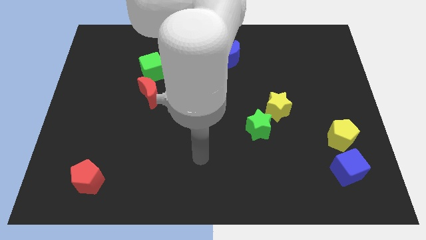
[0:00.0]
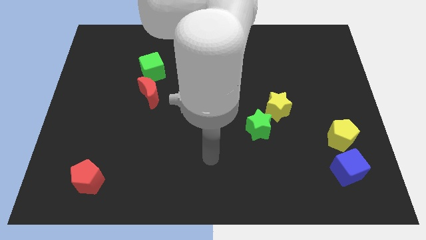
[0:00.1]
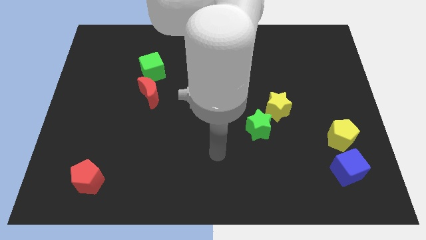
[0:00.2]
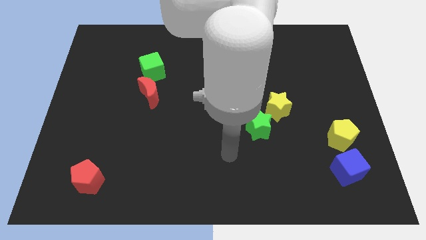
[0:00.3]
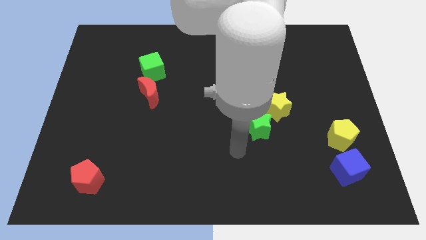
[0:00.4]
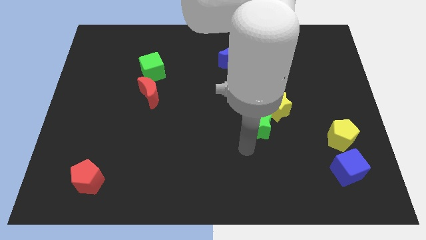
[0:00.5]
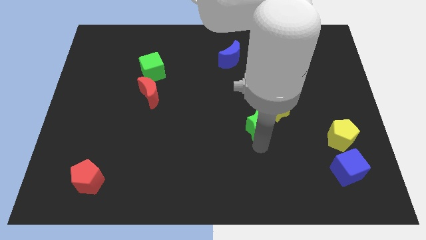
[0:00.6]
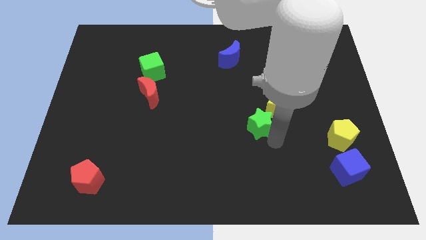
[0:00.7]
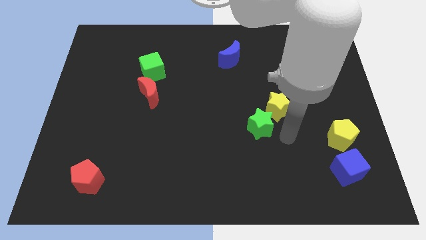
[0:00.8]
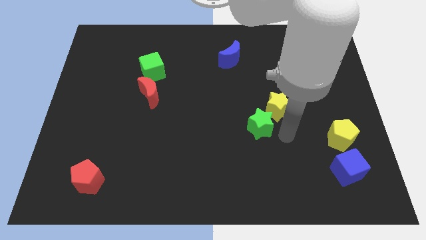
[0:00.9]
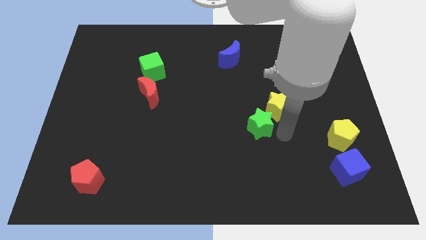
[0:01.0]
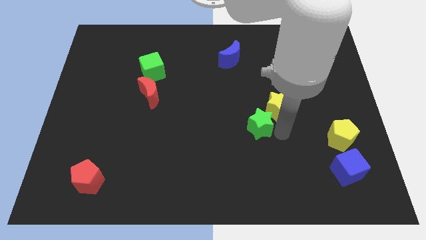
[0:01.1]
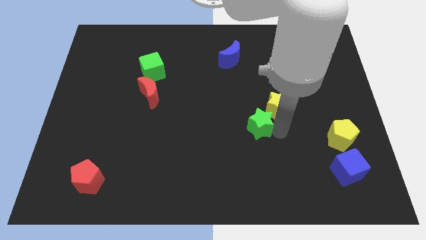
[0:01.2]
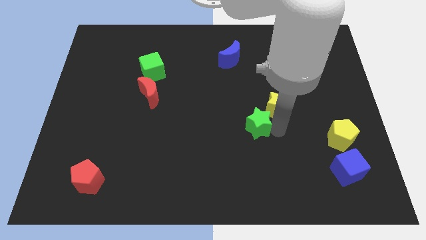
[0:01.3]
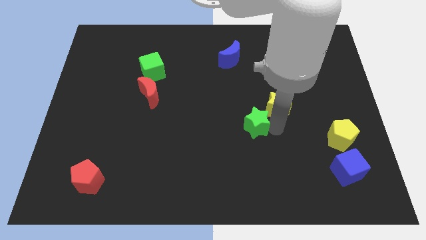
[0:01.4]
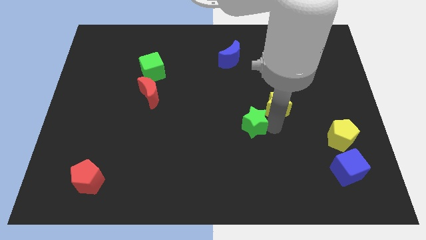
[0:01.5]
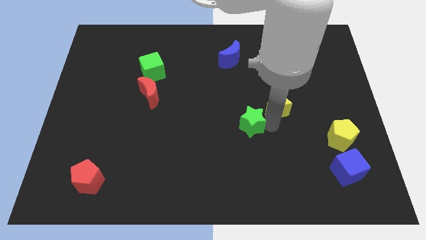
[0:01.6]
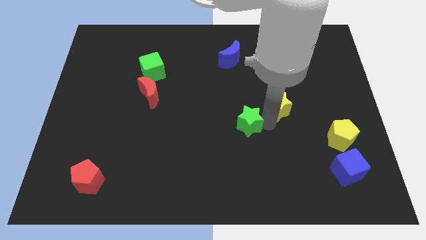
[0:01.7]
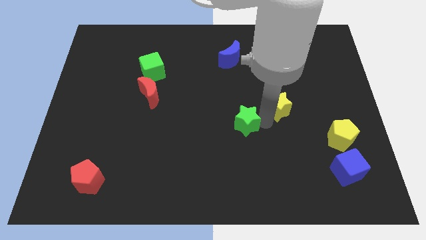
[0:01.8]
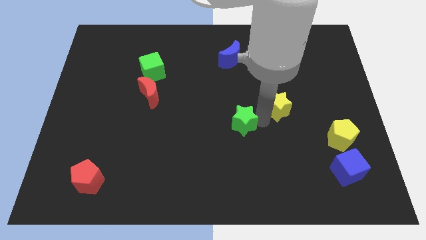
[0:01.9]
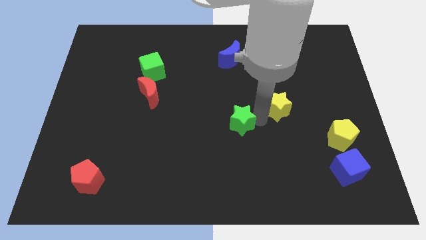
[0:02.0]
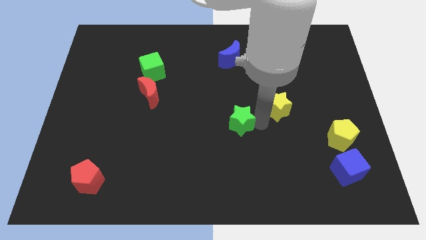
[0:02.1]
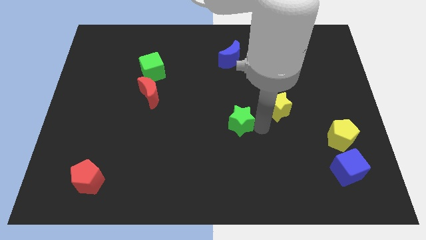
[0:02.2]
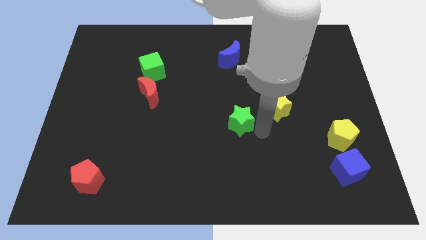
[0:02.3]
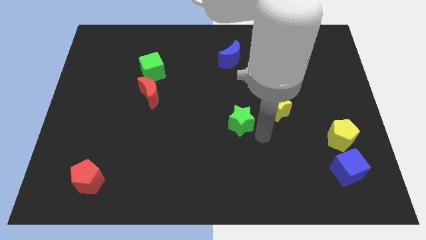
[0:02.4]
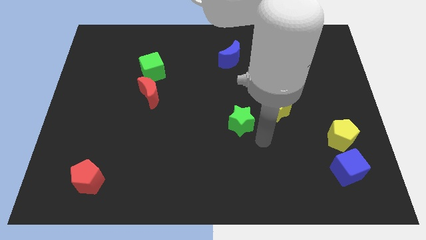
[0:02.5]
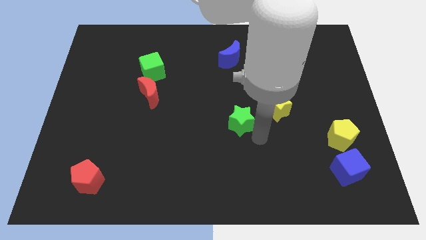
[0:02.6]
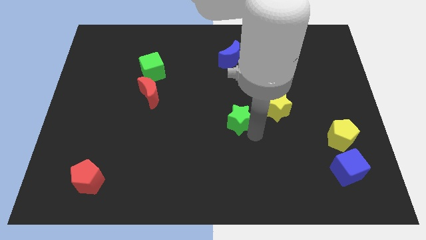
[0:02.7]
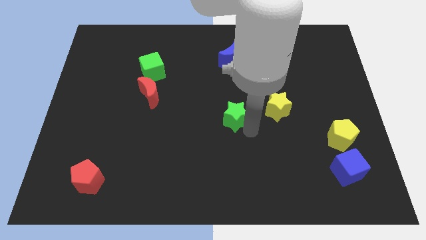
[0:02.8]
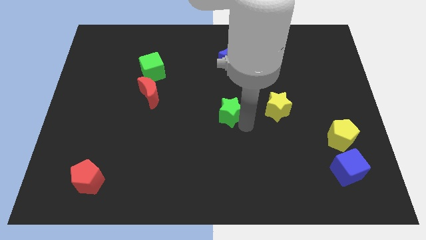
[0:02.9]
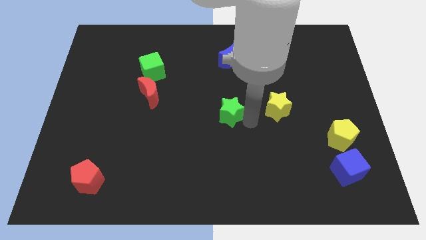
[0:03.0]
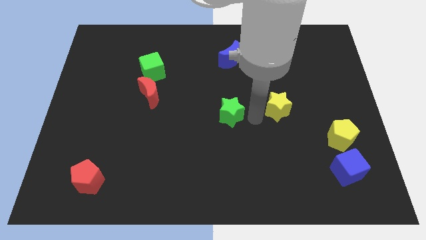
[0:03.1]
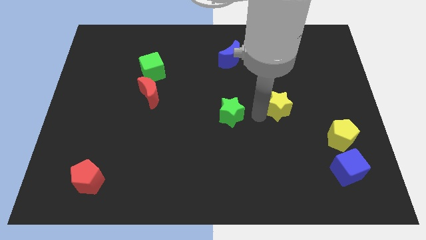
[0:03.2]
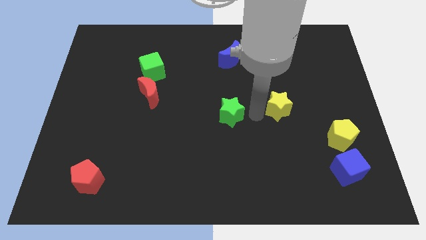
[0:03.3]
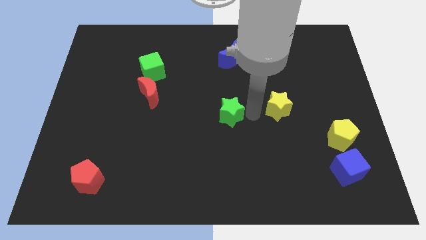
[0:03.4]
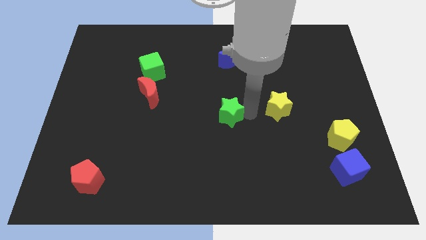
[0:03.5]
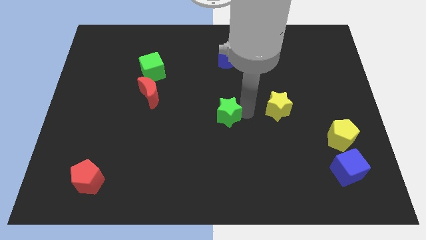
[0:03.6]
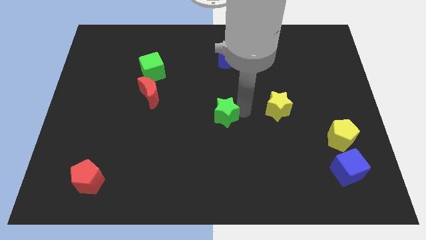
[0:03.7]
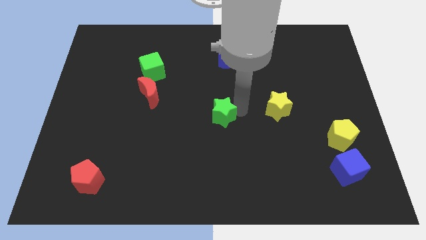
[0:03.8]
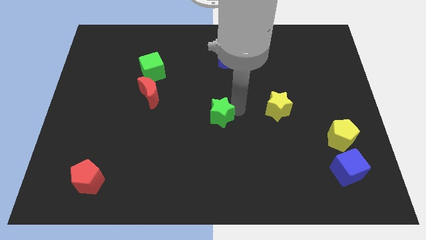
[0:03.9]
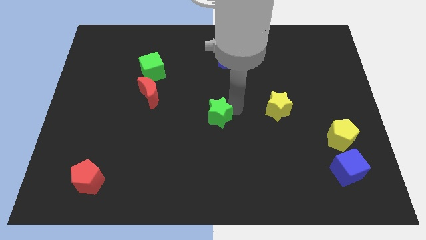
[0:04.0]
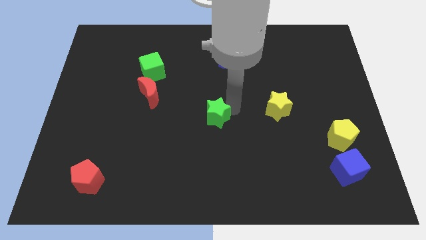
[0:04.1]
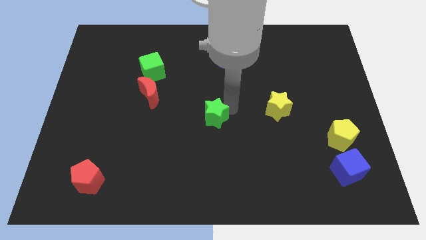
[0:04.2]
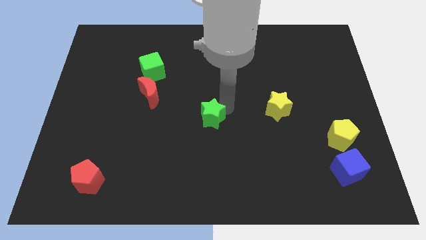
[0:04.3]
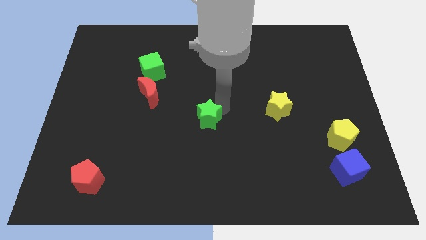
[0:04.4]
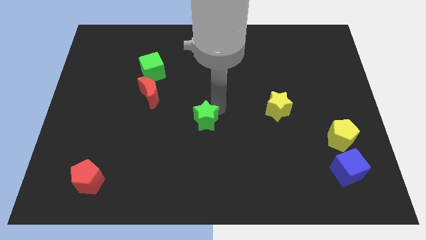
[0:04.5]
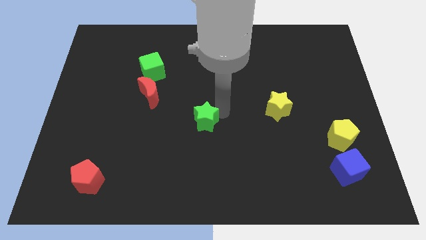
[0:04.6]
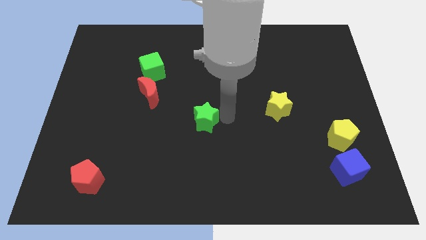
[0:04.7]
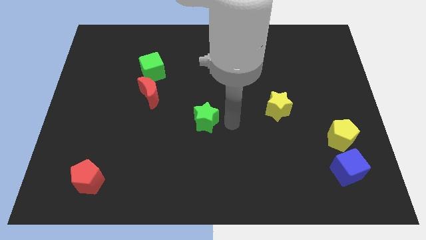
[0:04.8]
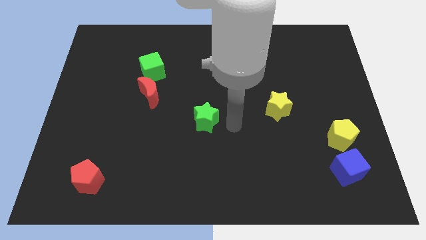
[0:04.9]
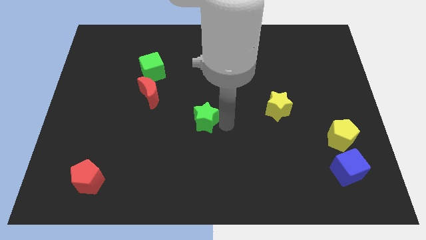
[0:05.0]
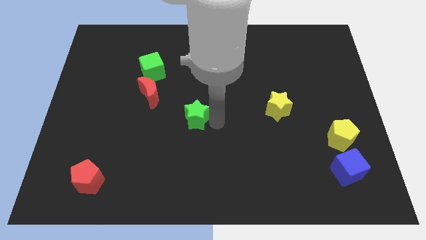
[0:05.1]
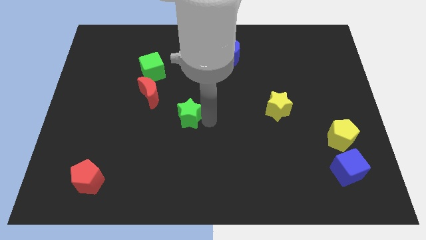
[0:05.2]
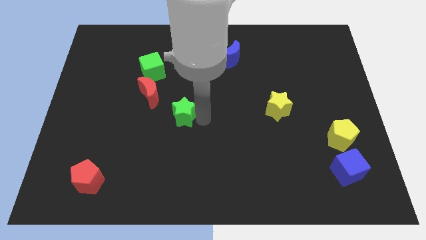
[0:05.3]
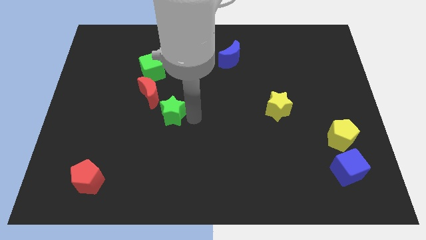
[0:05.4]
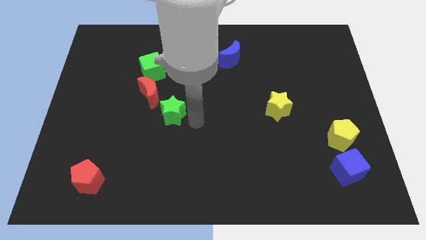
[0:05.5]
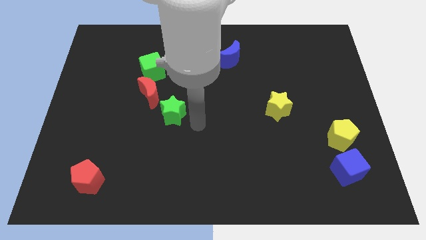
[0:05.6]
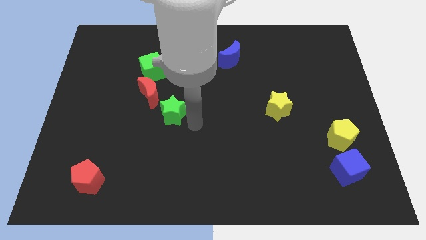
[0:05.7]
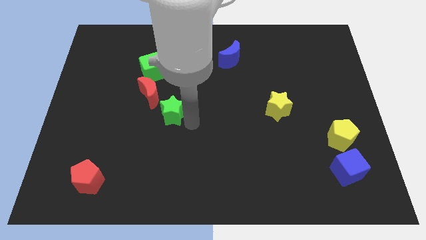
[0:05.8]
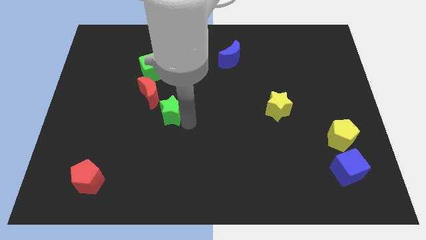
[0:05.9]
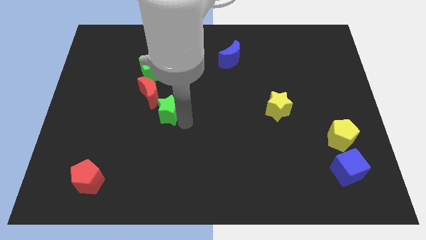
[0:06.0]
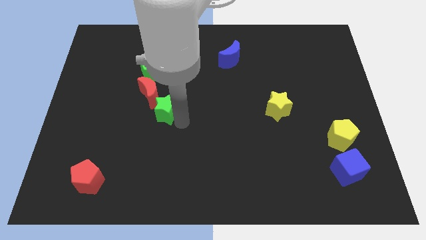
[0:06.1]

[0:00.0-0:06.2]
move the green star to the bottom side of the green cube

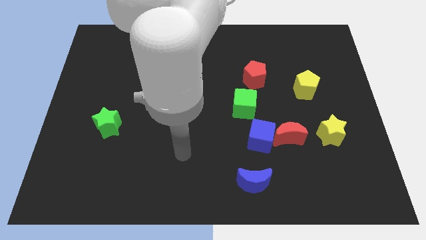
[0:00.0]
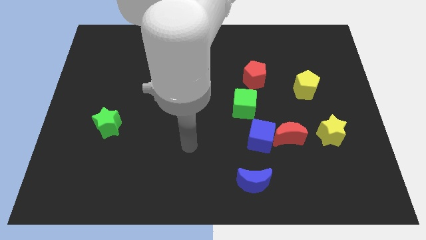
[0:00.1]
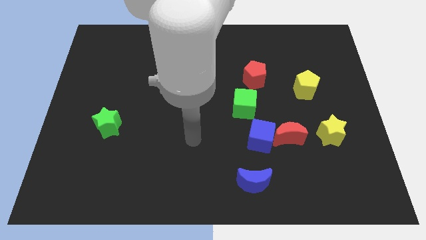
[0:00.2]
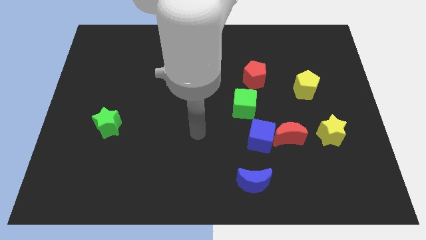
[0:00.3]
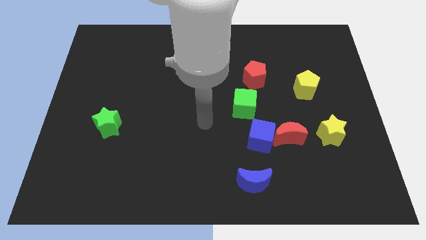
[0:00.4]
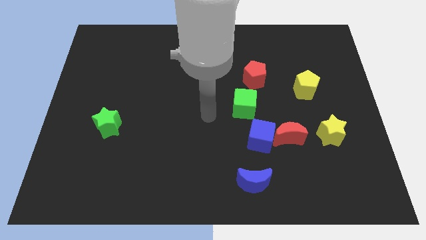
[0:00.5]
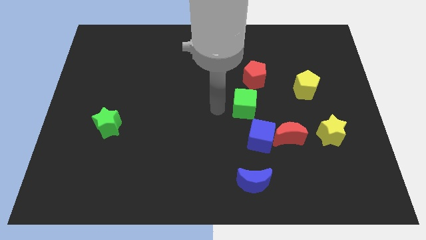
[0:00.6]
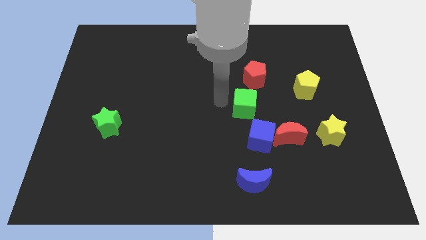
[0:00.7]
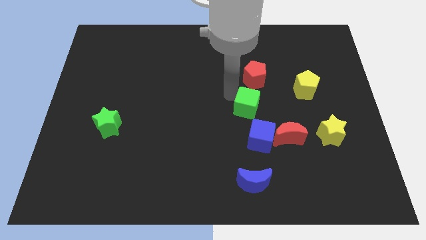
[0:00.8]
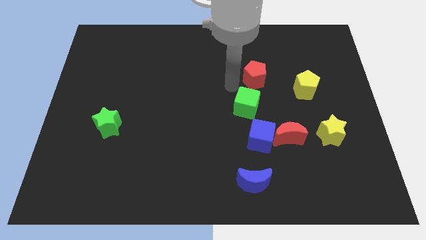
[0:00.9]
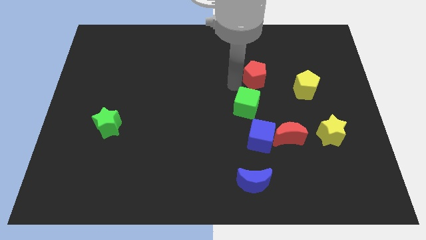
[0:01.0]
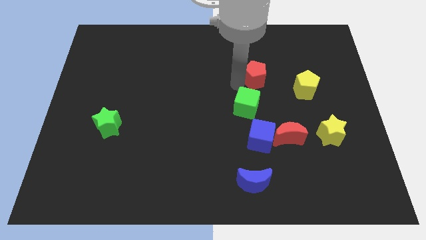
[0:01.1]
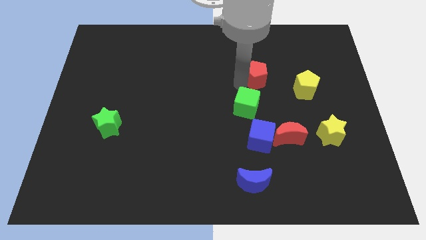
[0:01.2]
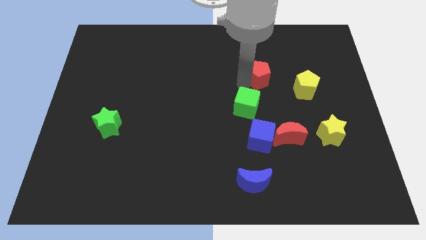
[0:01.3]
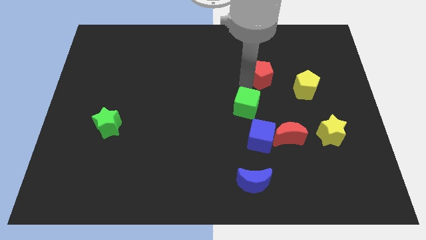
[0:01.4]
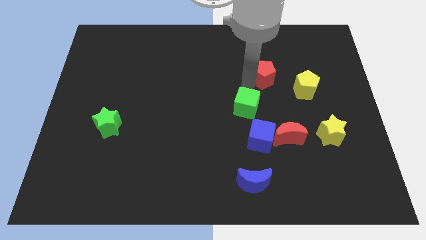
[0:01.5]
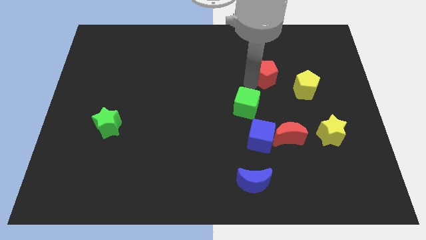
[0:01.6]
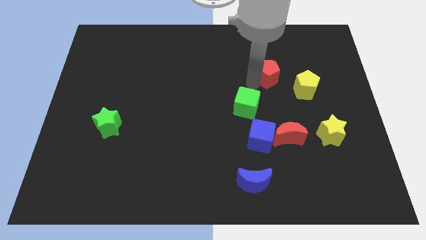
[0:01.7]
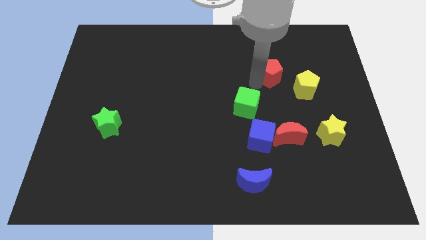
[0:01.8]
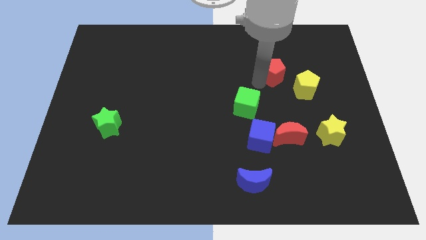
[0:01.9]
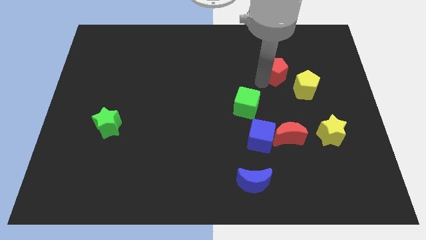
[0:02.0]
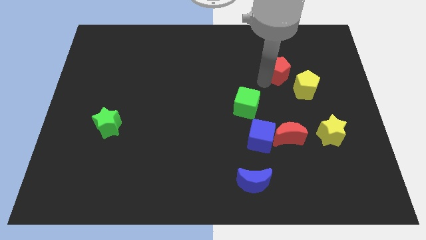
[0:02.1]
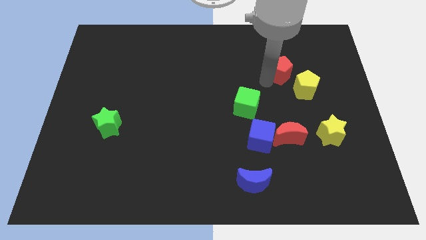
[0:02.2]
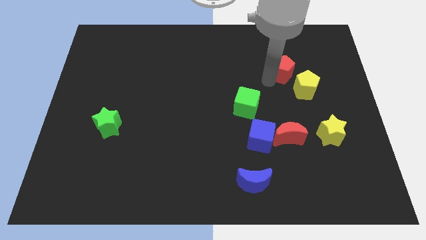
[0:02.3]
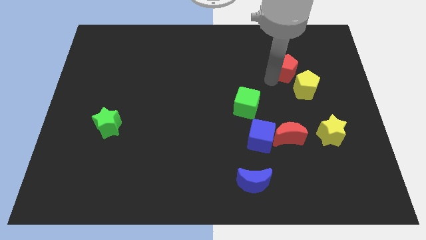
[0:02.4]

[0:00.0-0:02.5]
push the red pentagon to the top of the yellow pentagon
